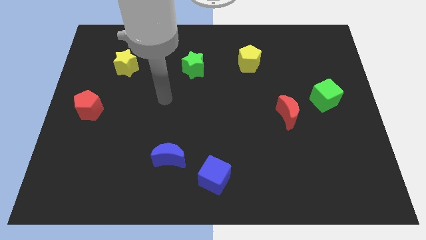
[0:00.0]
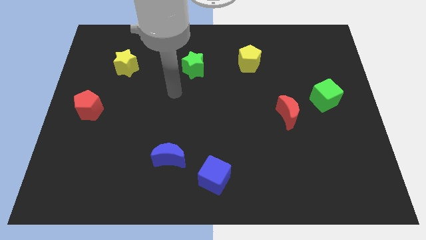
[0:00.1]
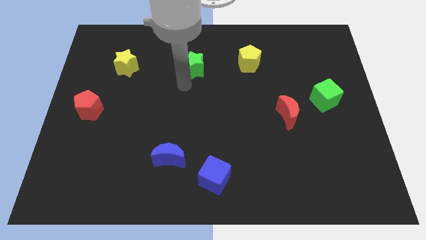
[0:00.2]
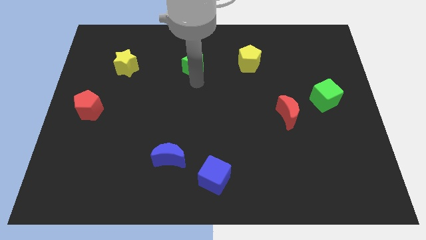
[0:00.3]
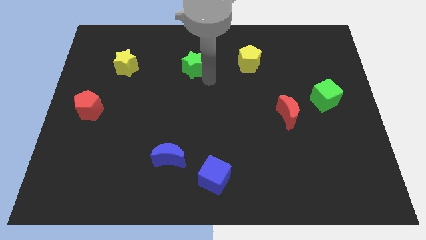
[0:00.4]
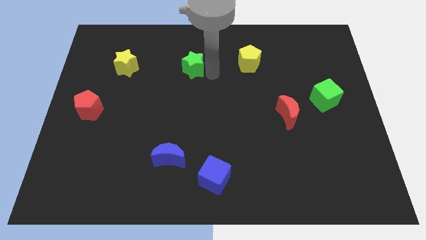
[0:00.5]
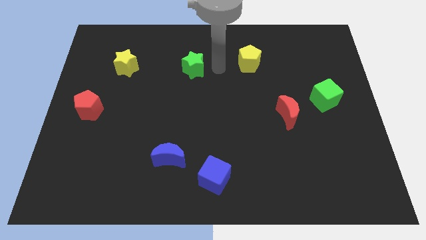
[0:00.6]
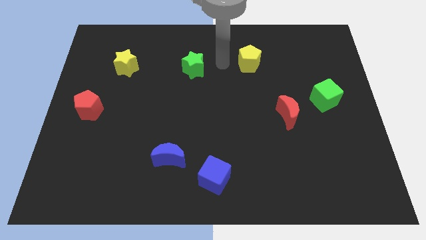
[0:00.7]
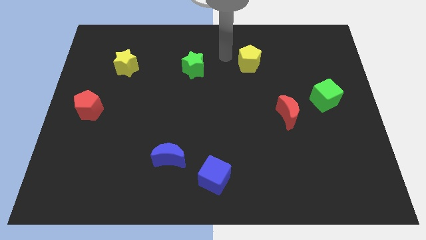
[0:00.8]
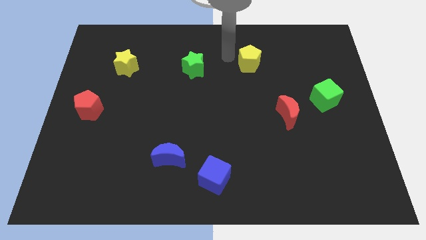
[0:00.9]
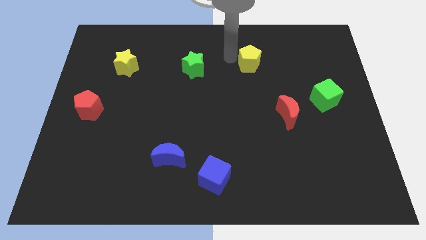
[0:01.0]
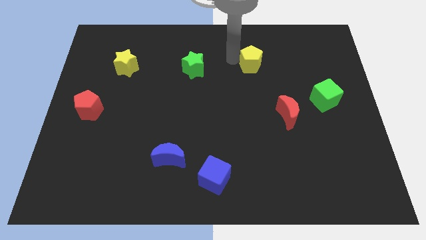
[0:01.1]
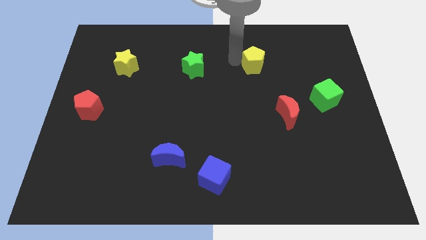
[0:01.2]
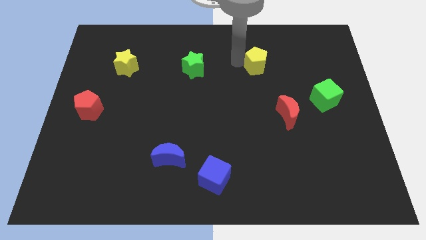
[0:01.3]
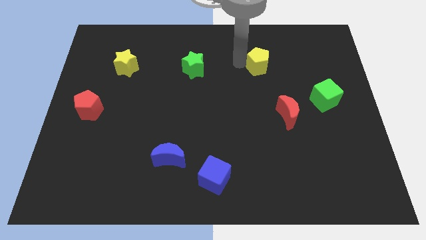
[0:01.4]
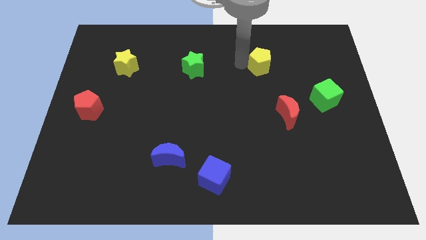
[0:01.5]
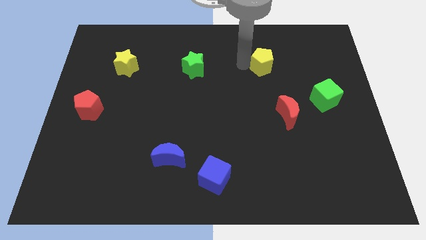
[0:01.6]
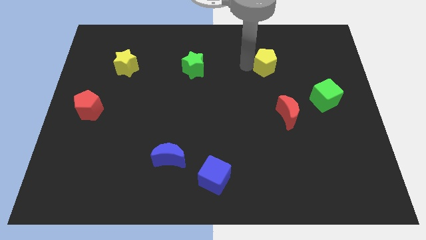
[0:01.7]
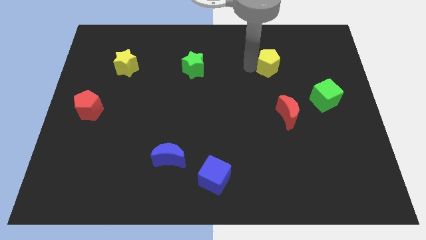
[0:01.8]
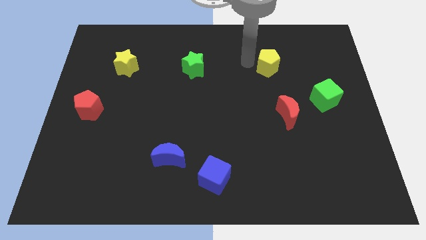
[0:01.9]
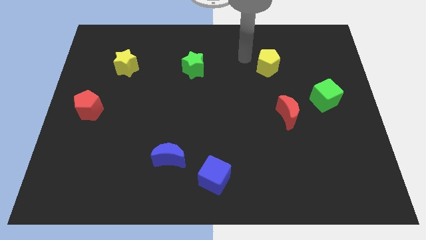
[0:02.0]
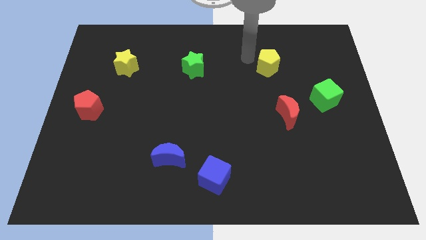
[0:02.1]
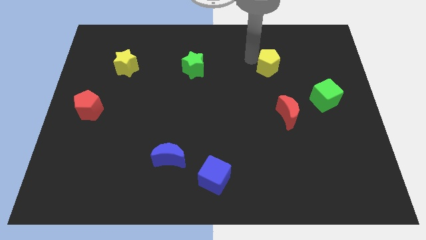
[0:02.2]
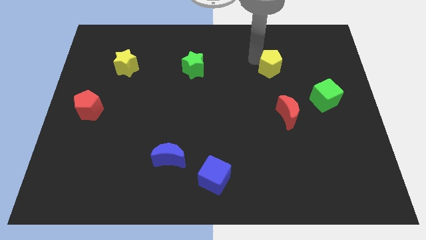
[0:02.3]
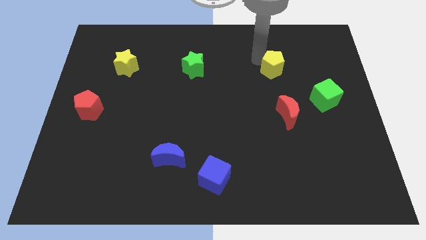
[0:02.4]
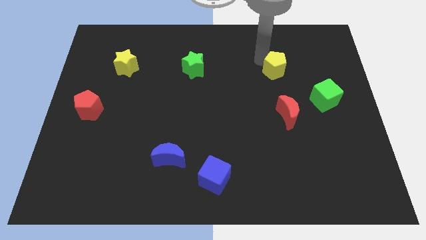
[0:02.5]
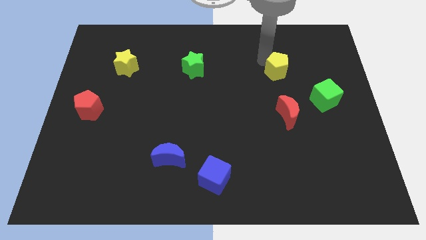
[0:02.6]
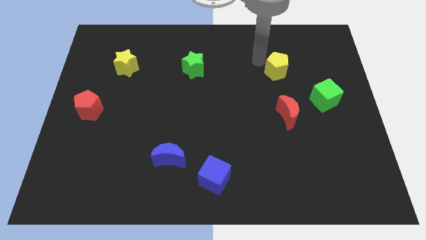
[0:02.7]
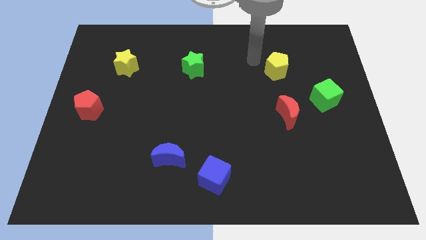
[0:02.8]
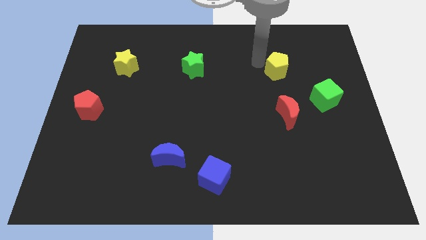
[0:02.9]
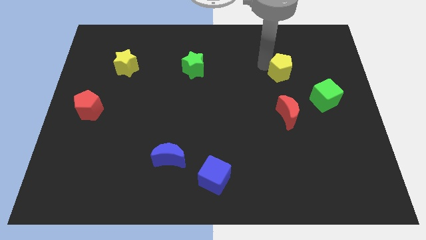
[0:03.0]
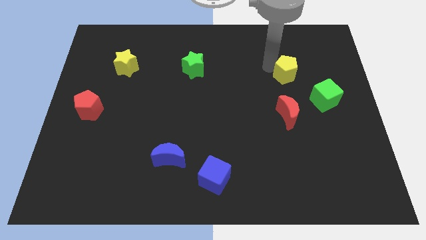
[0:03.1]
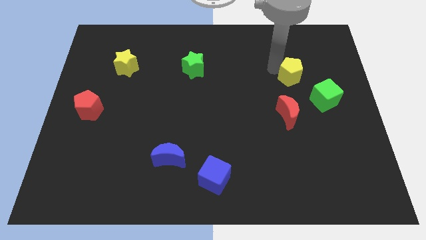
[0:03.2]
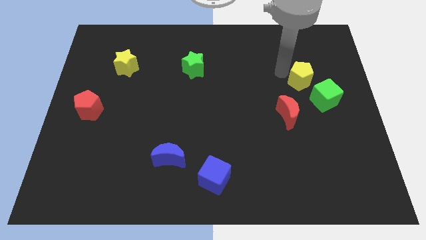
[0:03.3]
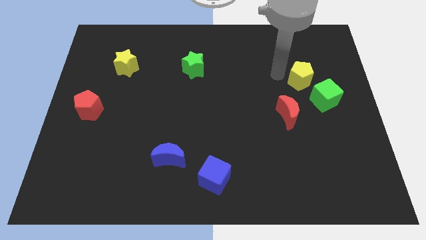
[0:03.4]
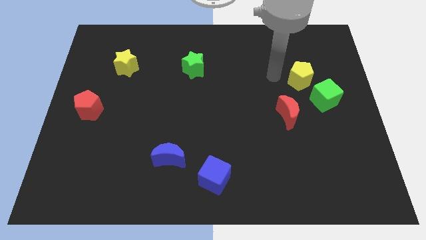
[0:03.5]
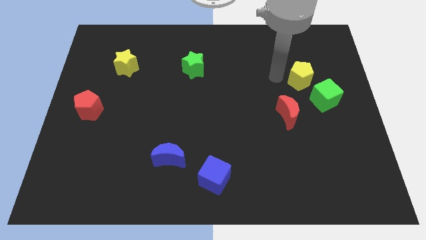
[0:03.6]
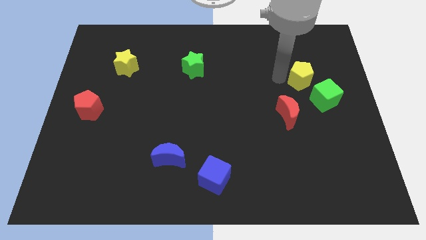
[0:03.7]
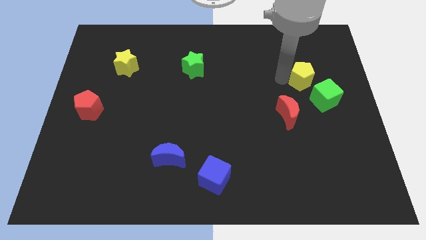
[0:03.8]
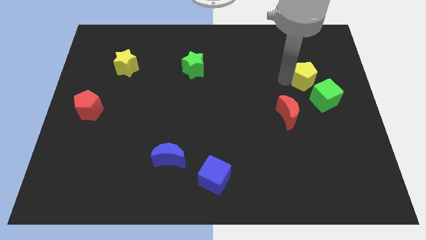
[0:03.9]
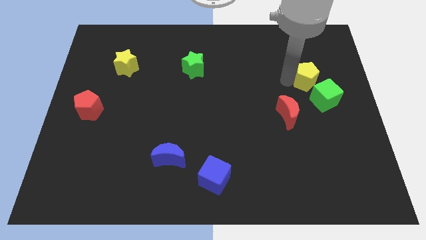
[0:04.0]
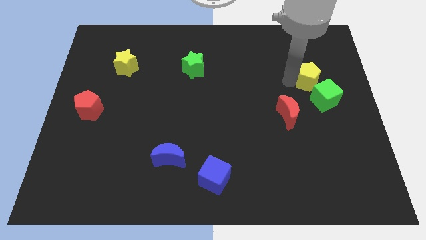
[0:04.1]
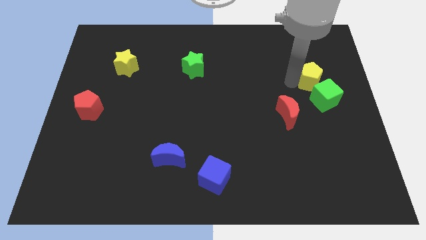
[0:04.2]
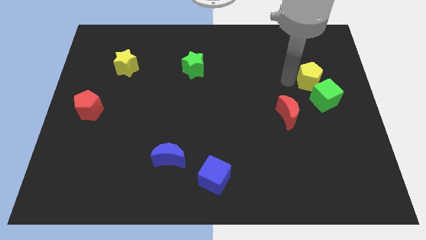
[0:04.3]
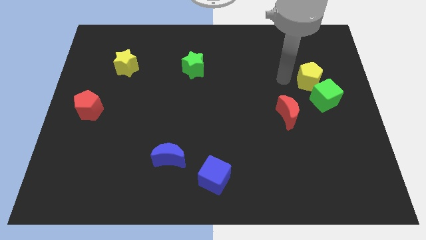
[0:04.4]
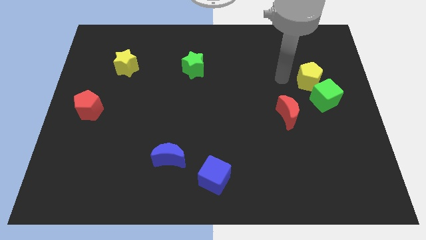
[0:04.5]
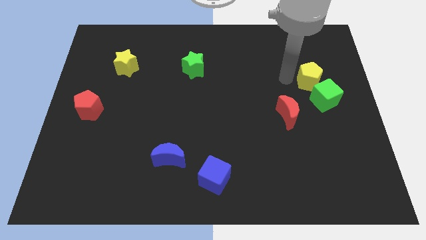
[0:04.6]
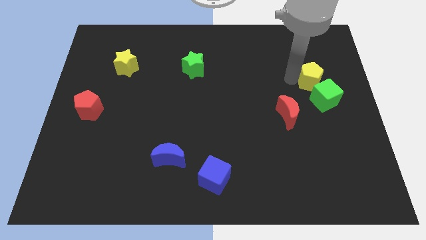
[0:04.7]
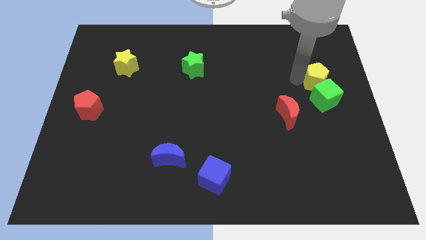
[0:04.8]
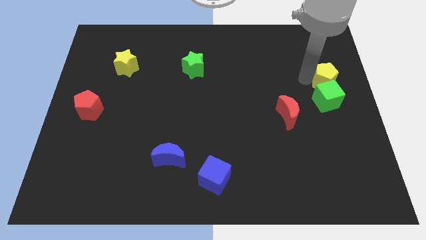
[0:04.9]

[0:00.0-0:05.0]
slide the yellow pentagon to the center right

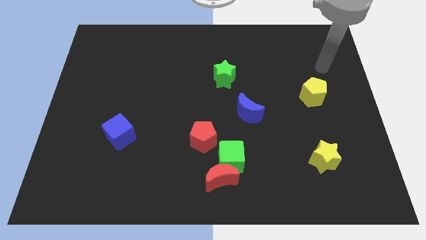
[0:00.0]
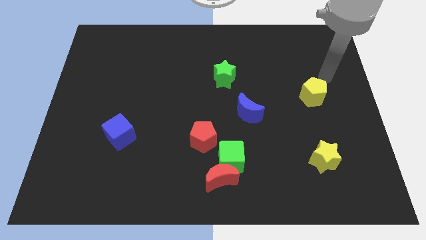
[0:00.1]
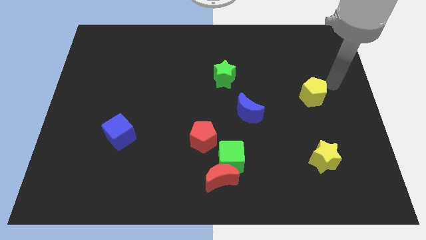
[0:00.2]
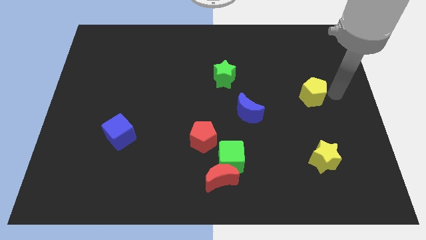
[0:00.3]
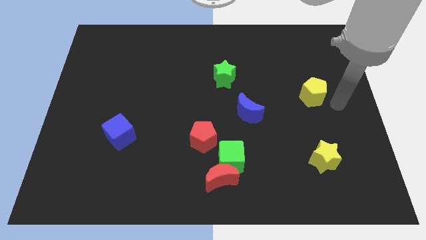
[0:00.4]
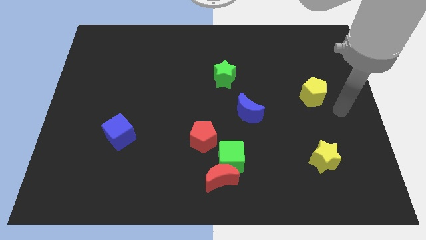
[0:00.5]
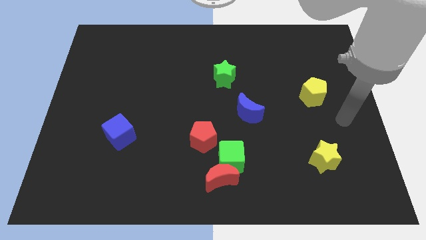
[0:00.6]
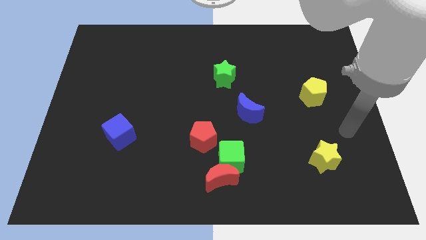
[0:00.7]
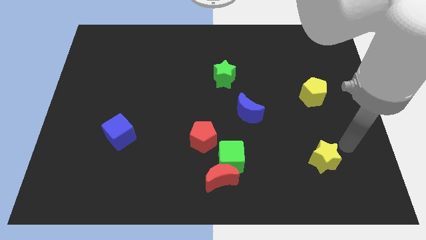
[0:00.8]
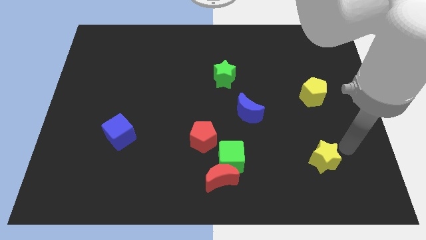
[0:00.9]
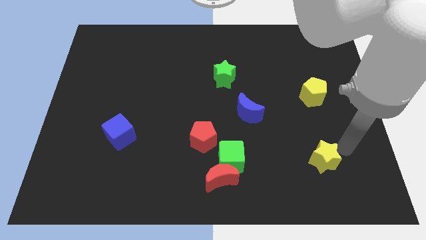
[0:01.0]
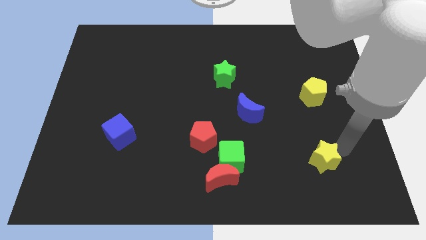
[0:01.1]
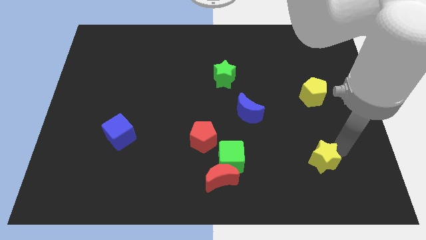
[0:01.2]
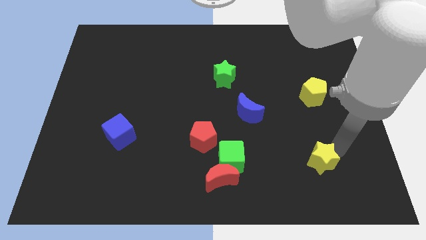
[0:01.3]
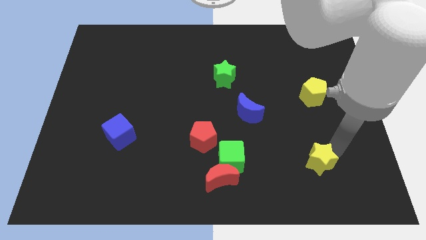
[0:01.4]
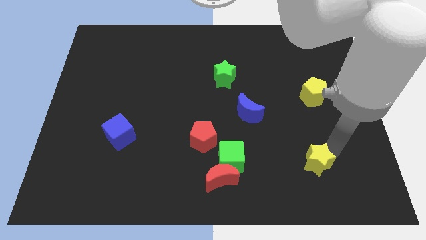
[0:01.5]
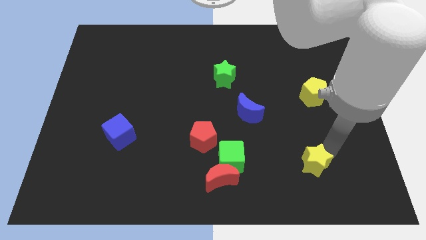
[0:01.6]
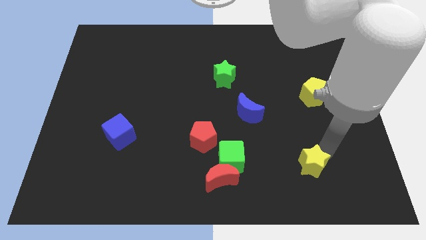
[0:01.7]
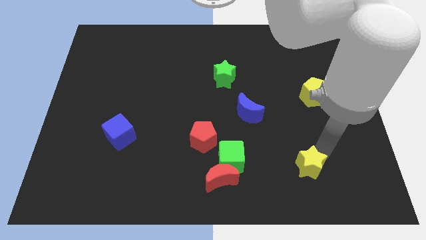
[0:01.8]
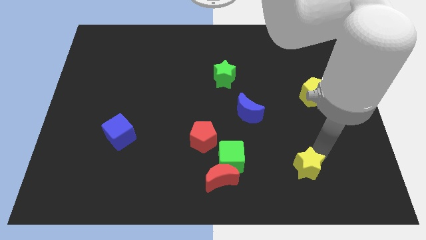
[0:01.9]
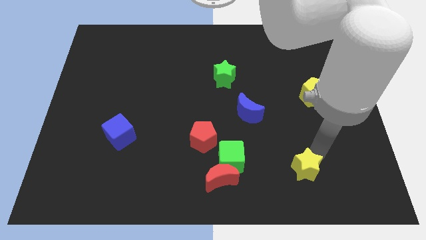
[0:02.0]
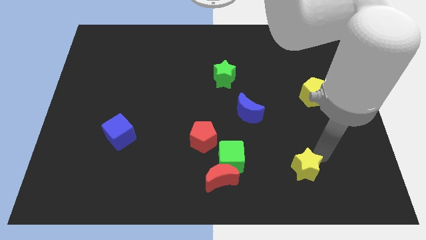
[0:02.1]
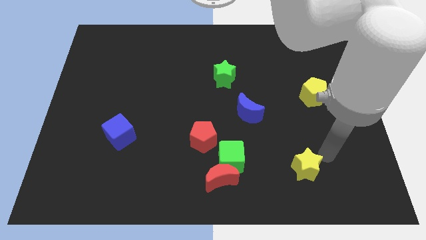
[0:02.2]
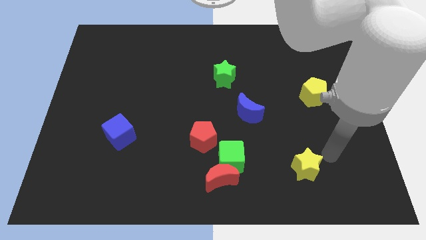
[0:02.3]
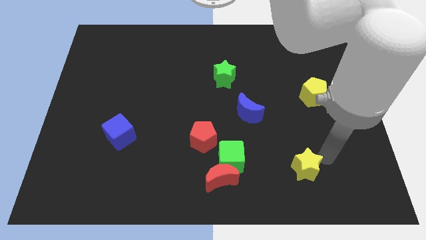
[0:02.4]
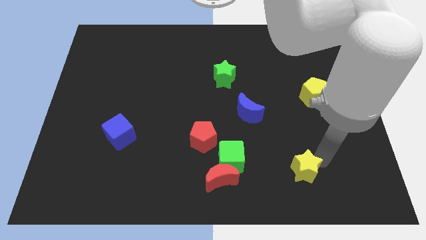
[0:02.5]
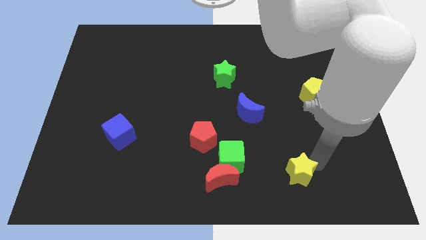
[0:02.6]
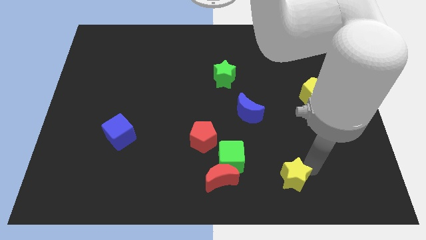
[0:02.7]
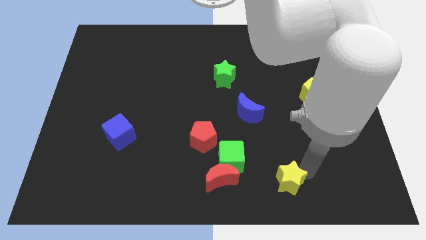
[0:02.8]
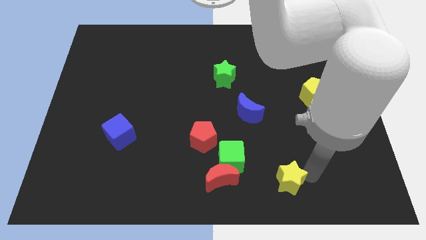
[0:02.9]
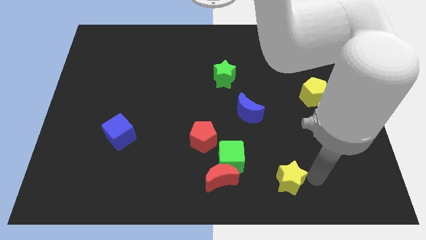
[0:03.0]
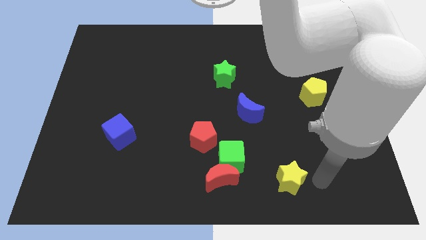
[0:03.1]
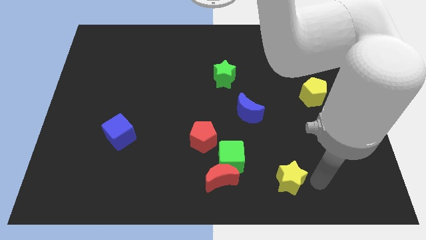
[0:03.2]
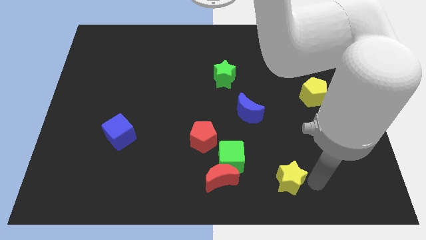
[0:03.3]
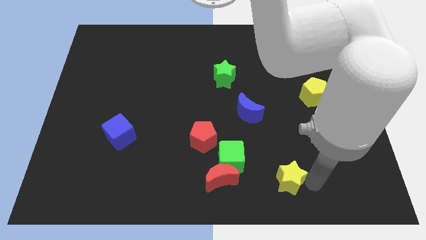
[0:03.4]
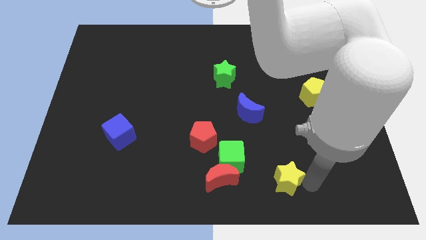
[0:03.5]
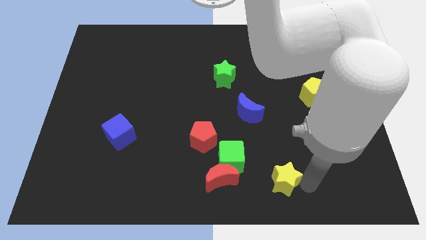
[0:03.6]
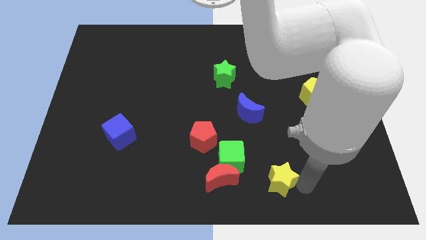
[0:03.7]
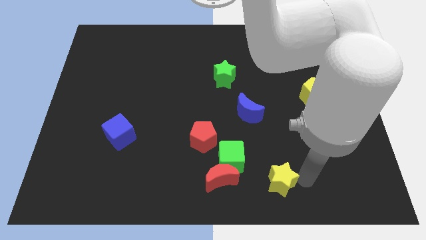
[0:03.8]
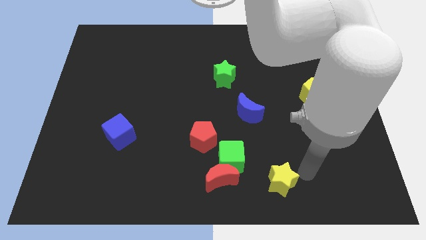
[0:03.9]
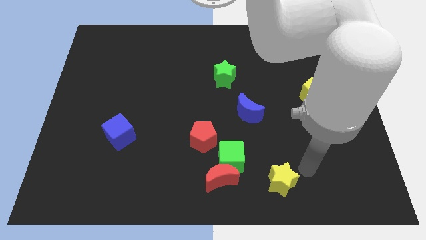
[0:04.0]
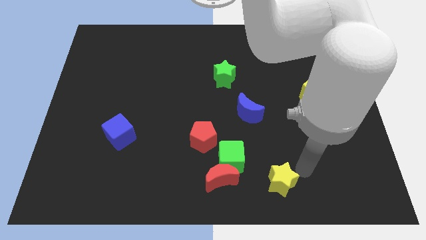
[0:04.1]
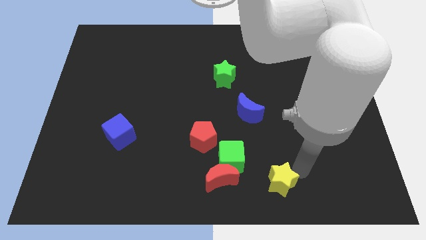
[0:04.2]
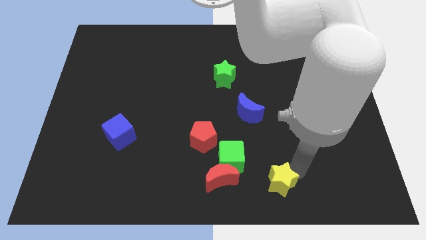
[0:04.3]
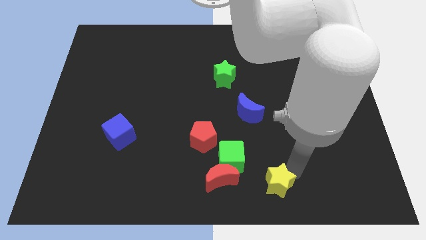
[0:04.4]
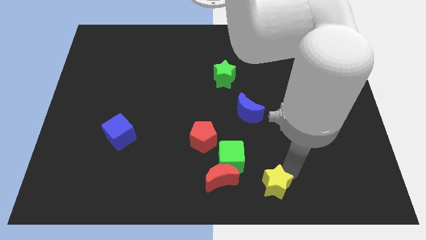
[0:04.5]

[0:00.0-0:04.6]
slide the yellow star to the bottom
